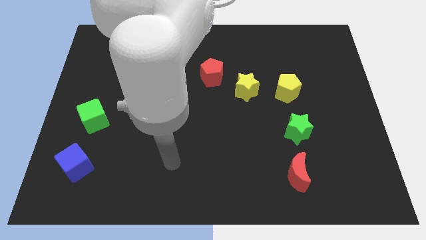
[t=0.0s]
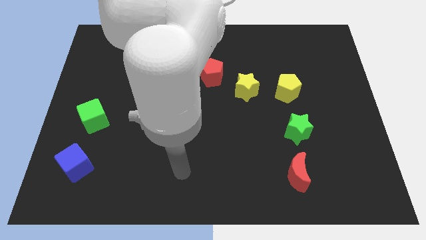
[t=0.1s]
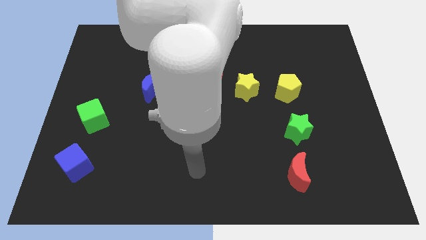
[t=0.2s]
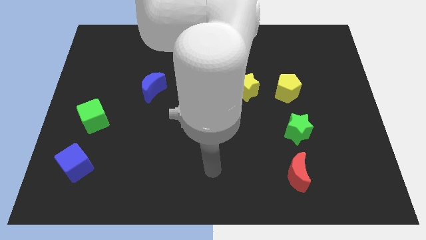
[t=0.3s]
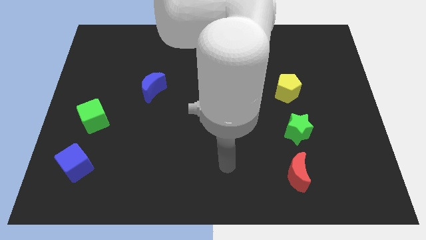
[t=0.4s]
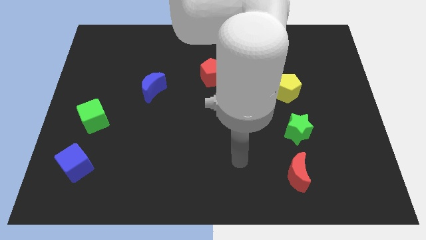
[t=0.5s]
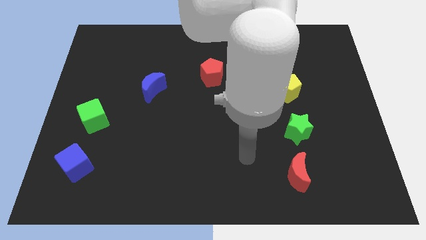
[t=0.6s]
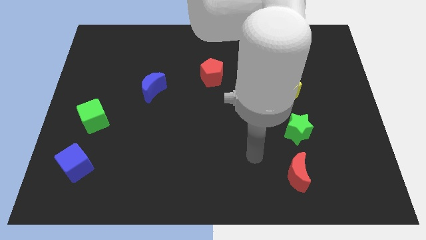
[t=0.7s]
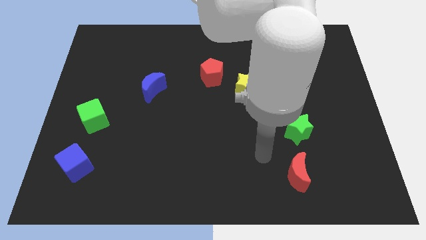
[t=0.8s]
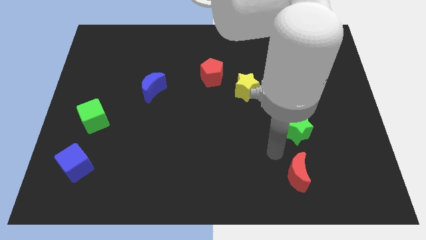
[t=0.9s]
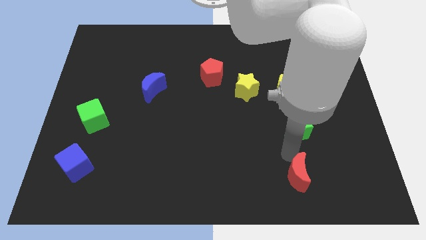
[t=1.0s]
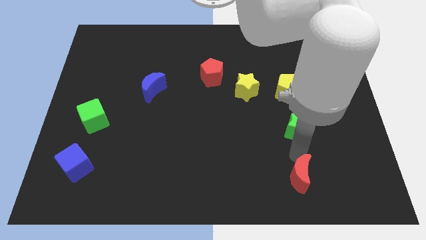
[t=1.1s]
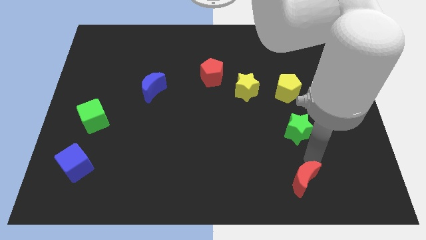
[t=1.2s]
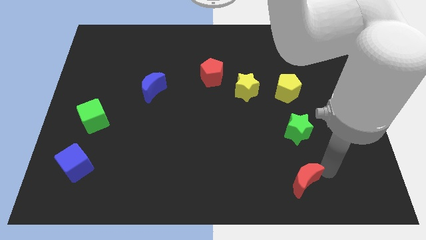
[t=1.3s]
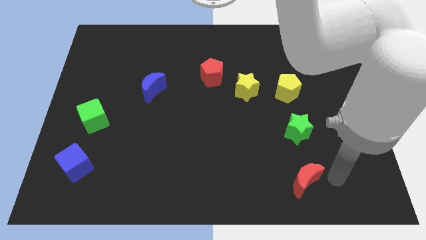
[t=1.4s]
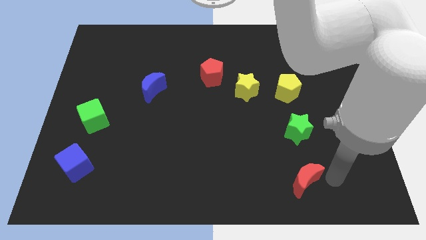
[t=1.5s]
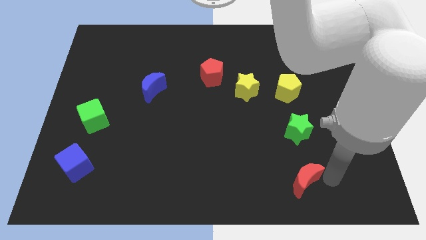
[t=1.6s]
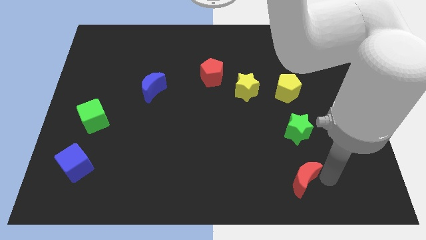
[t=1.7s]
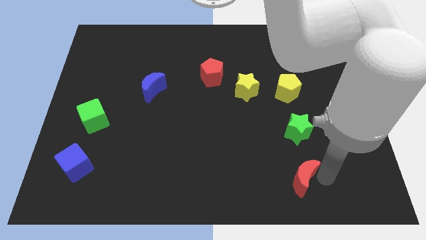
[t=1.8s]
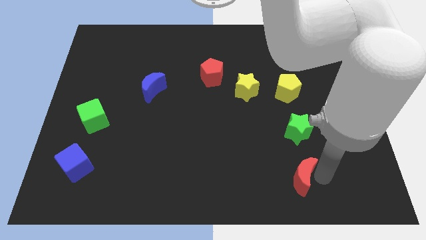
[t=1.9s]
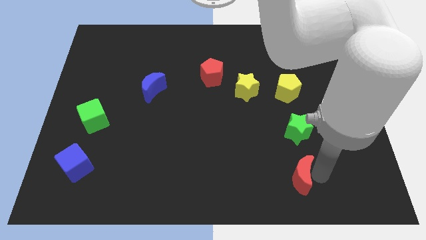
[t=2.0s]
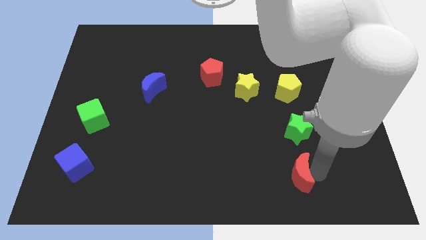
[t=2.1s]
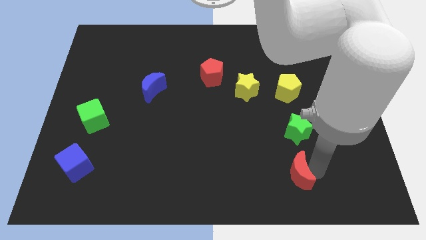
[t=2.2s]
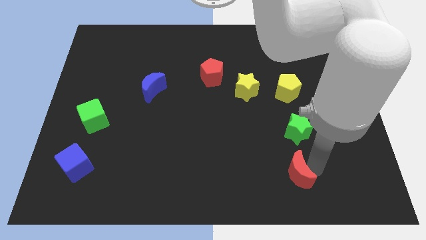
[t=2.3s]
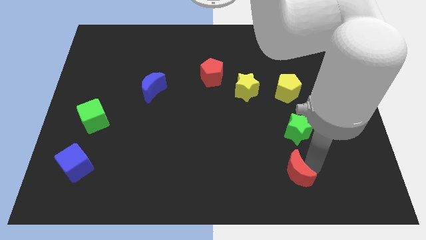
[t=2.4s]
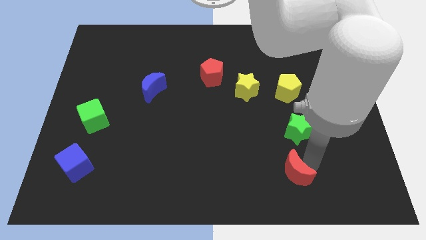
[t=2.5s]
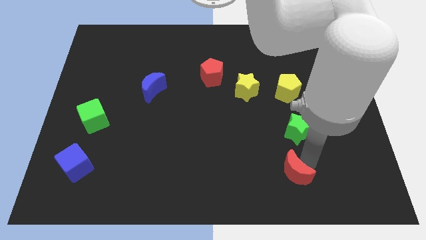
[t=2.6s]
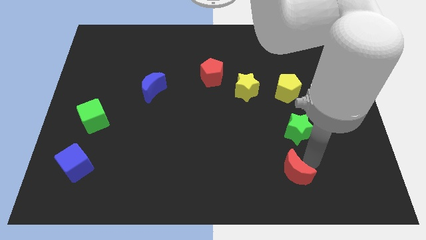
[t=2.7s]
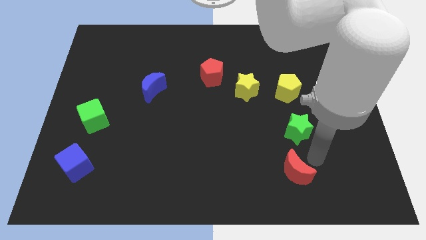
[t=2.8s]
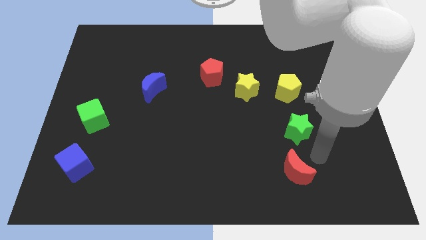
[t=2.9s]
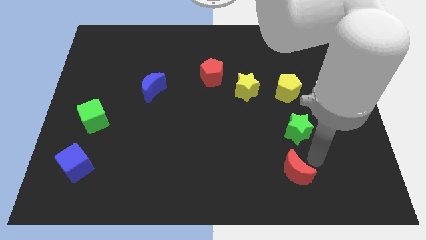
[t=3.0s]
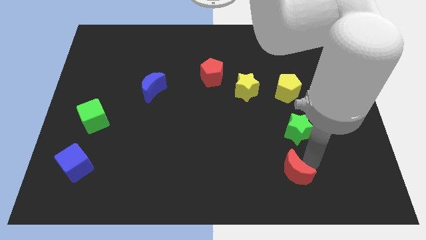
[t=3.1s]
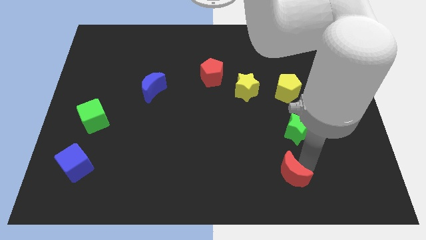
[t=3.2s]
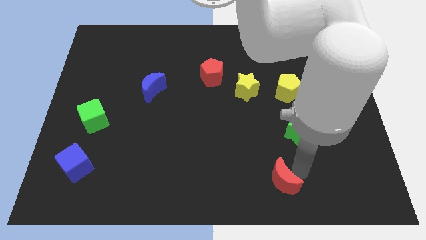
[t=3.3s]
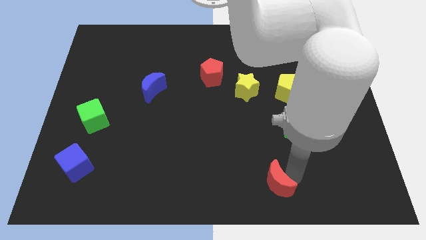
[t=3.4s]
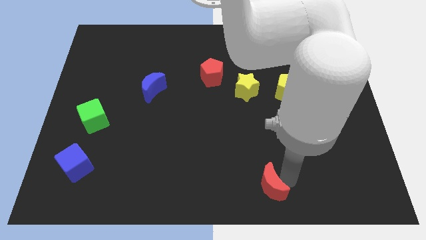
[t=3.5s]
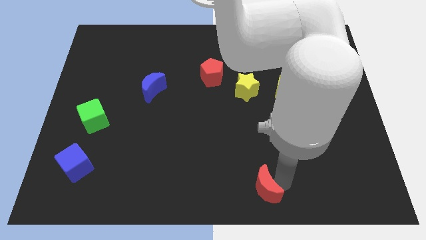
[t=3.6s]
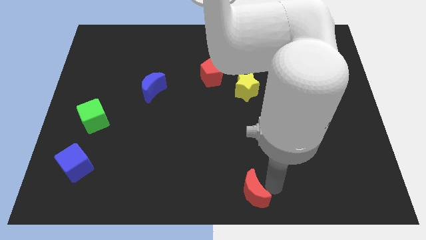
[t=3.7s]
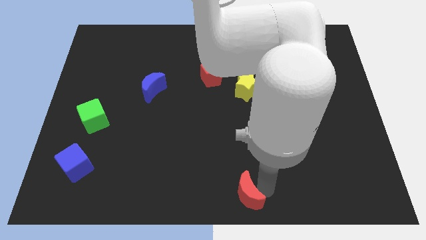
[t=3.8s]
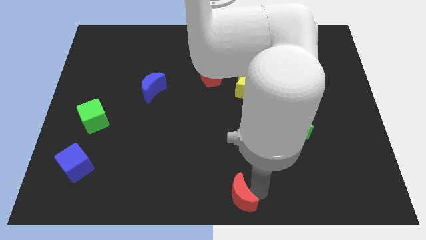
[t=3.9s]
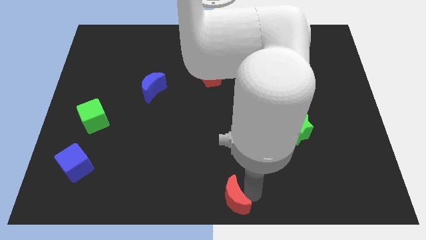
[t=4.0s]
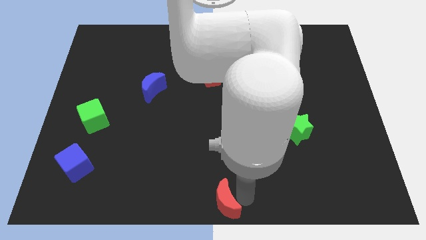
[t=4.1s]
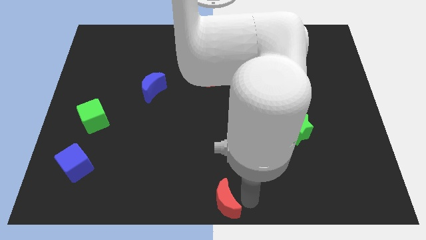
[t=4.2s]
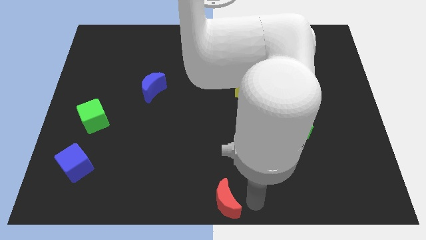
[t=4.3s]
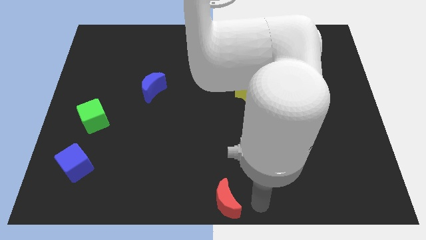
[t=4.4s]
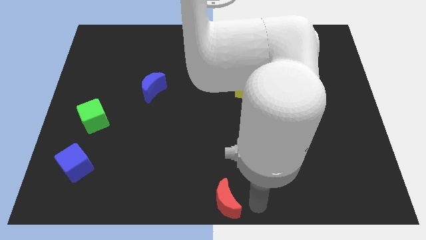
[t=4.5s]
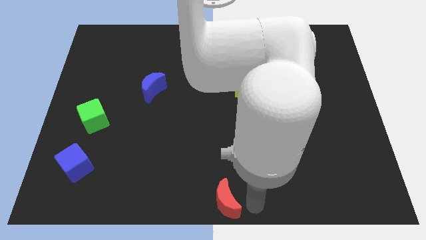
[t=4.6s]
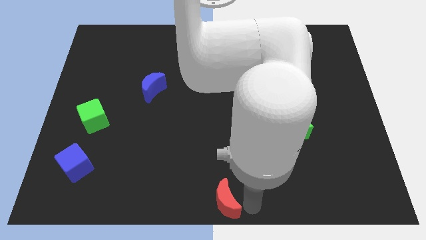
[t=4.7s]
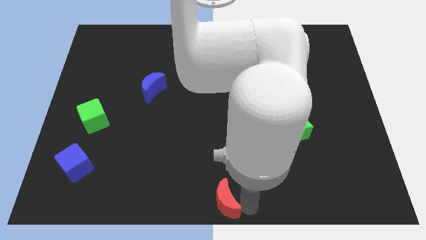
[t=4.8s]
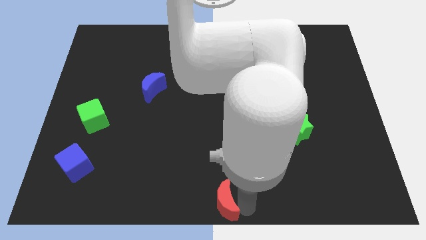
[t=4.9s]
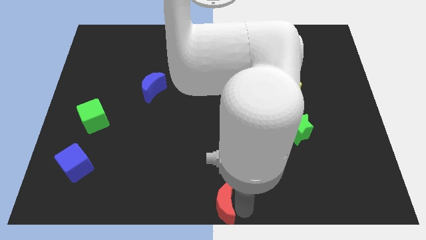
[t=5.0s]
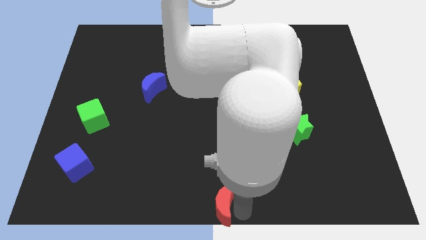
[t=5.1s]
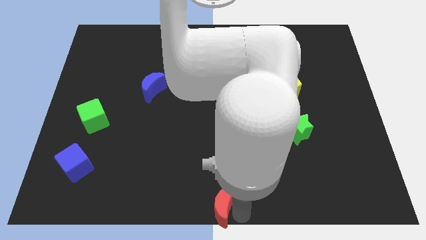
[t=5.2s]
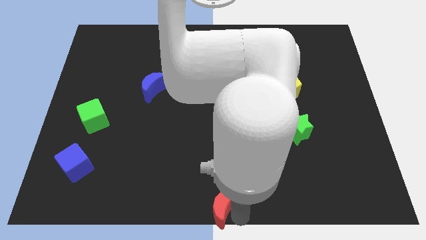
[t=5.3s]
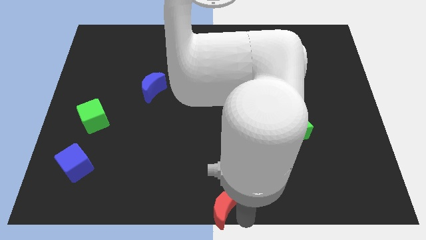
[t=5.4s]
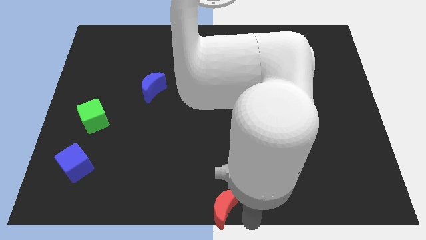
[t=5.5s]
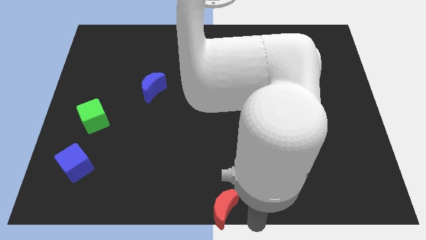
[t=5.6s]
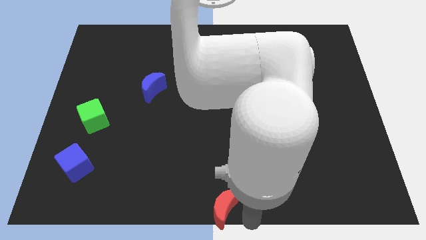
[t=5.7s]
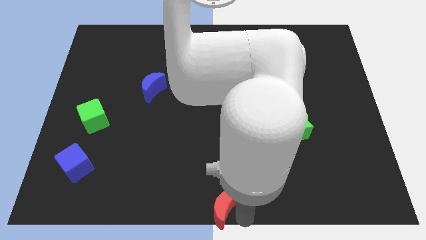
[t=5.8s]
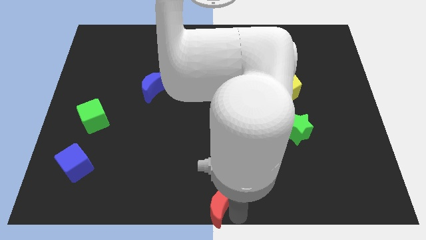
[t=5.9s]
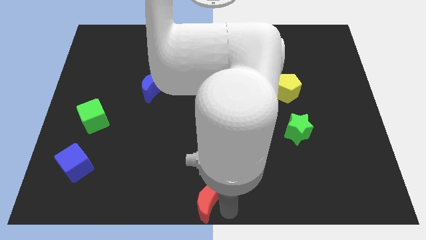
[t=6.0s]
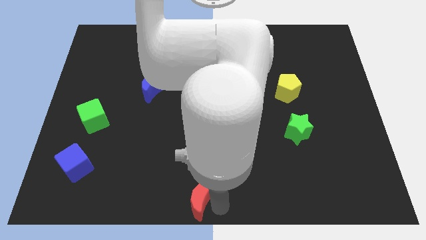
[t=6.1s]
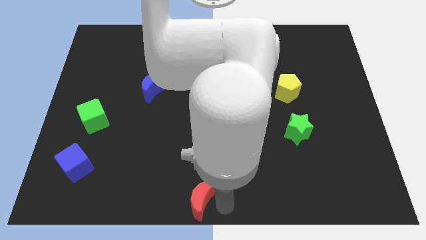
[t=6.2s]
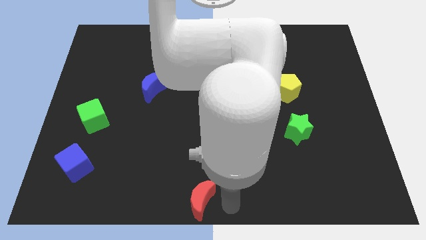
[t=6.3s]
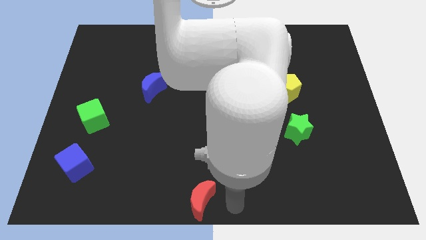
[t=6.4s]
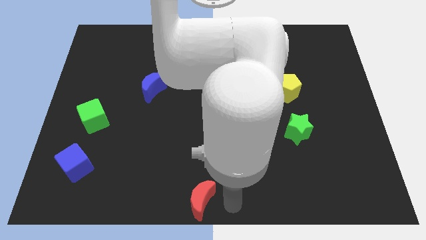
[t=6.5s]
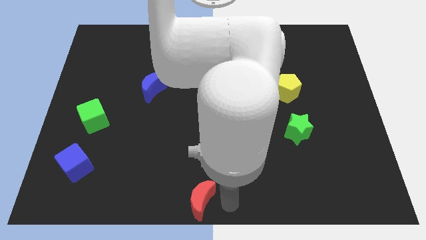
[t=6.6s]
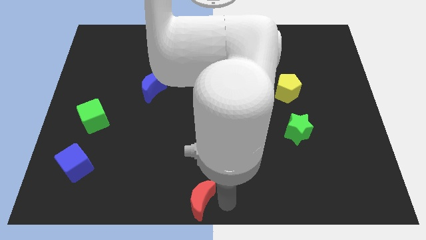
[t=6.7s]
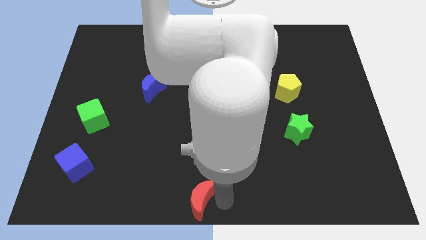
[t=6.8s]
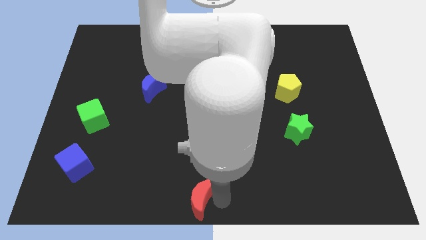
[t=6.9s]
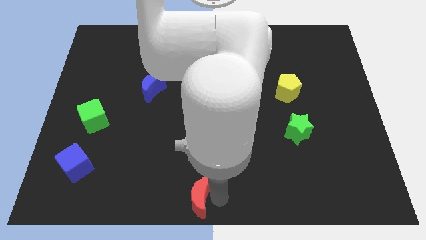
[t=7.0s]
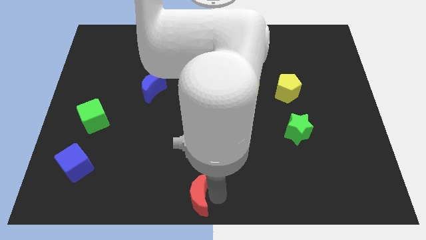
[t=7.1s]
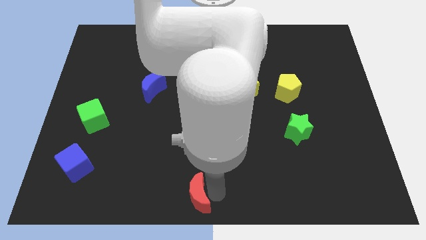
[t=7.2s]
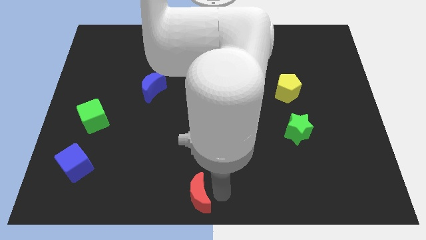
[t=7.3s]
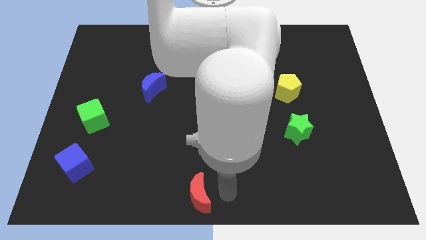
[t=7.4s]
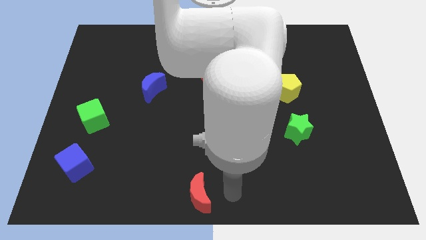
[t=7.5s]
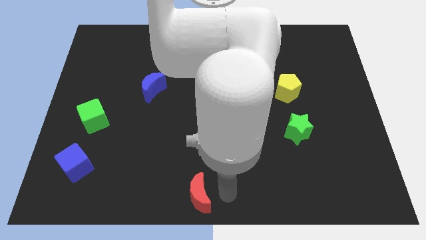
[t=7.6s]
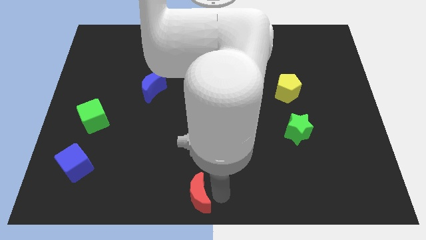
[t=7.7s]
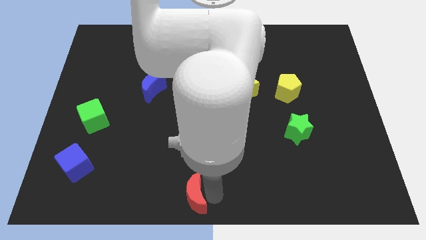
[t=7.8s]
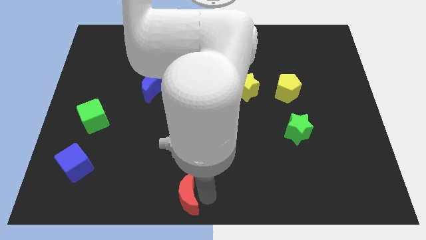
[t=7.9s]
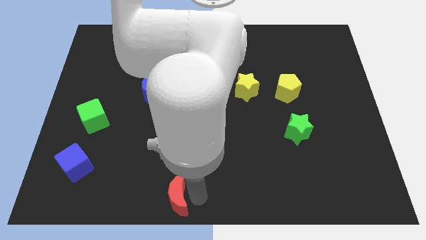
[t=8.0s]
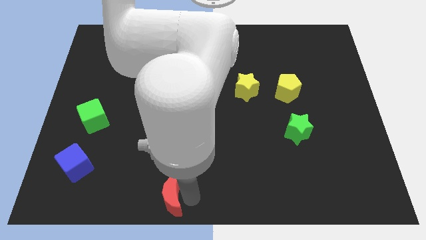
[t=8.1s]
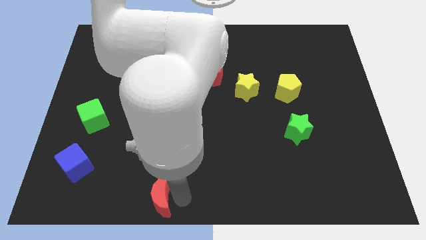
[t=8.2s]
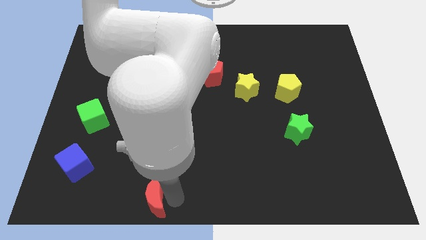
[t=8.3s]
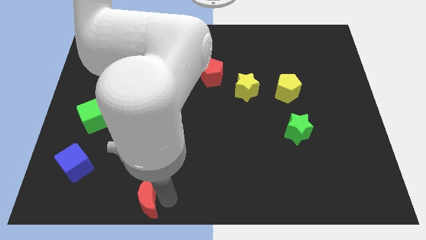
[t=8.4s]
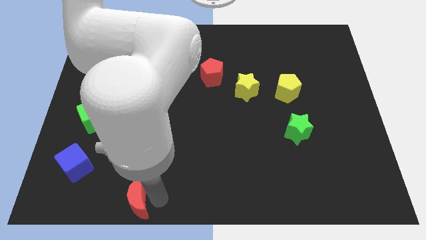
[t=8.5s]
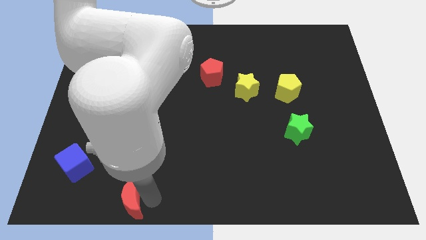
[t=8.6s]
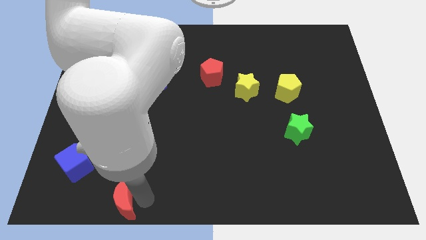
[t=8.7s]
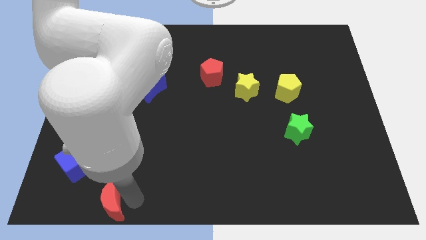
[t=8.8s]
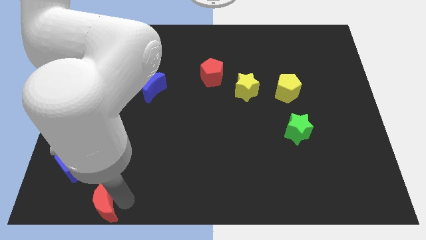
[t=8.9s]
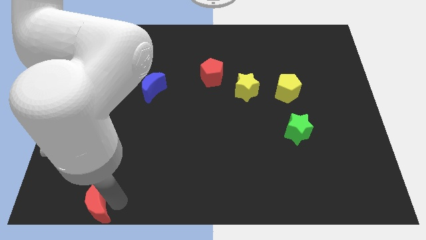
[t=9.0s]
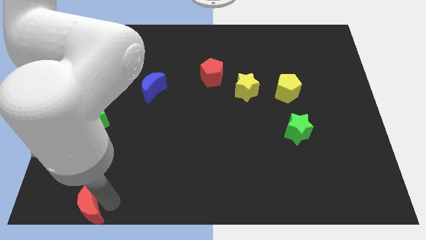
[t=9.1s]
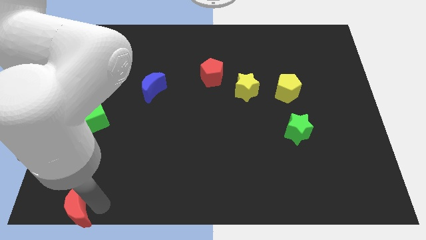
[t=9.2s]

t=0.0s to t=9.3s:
push the red moon to the lower left corner
